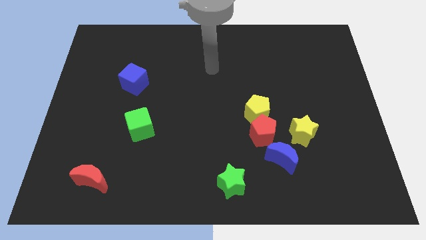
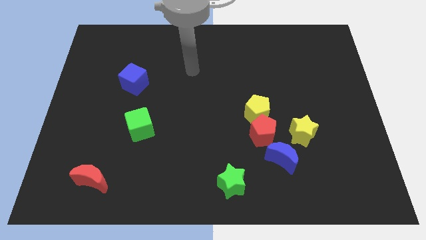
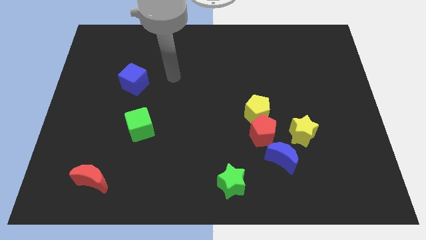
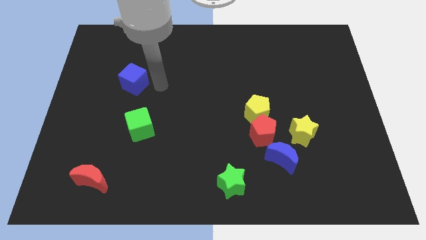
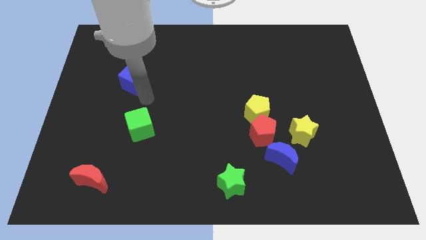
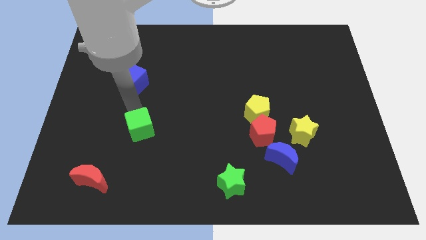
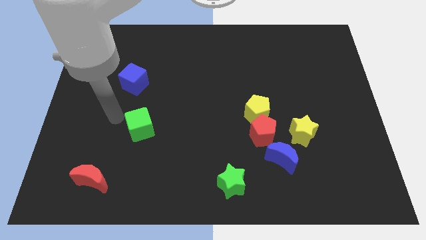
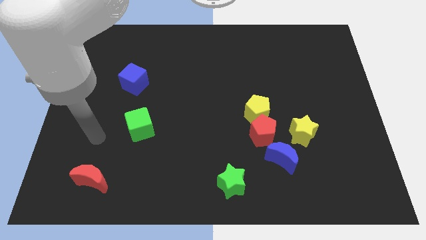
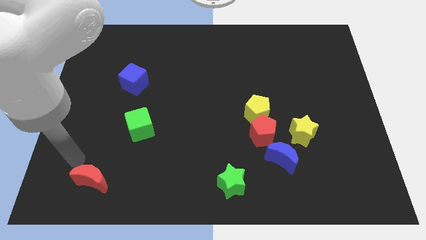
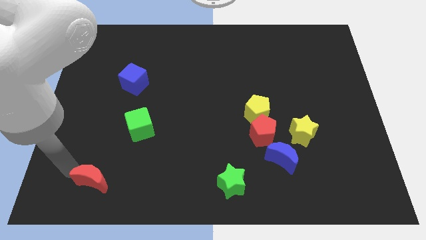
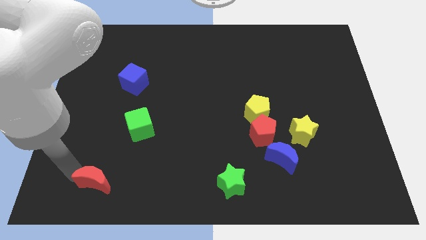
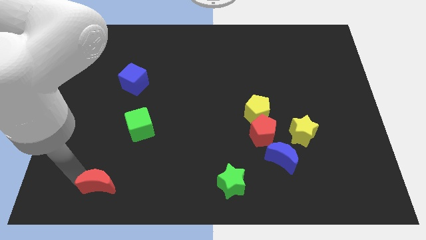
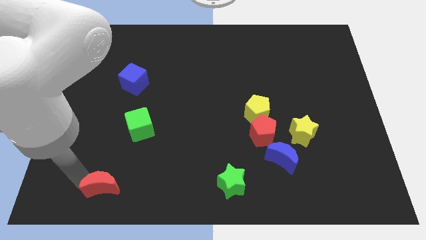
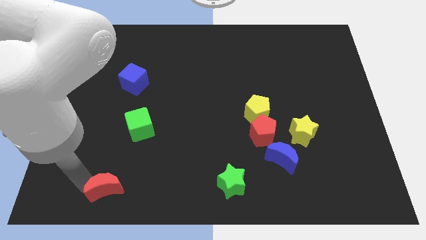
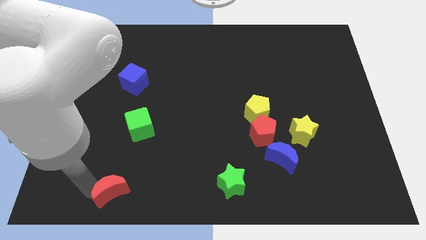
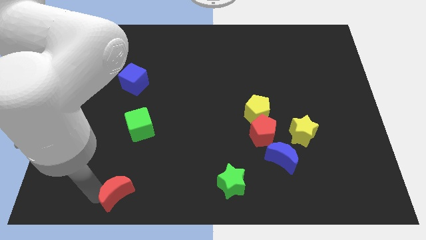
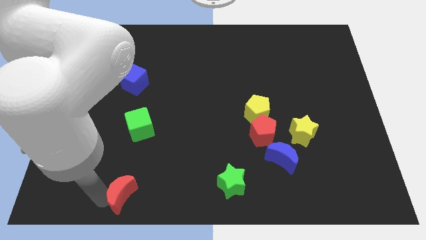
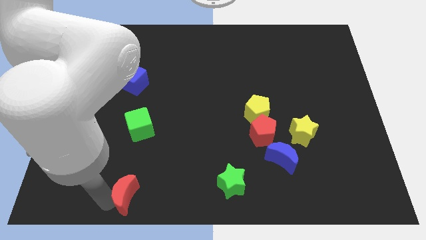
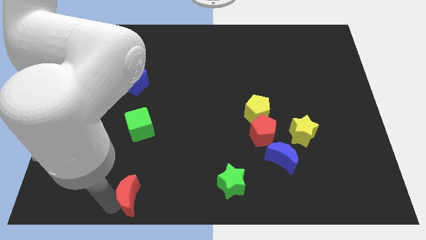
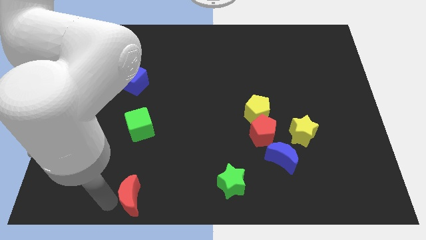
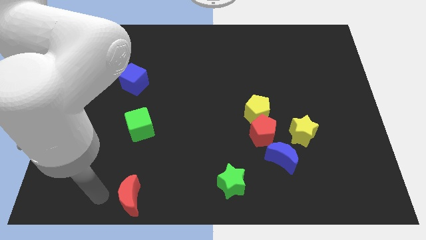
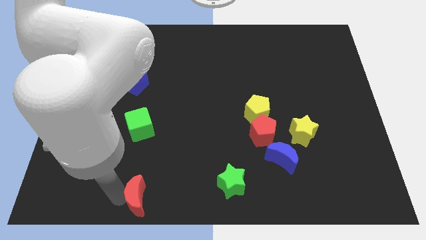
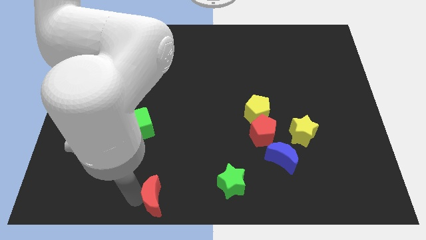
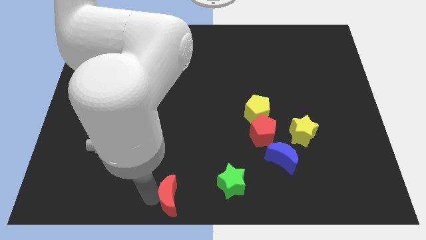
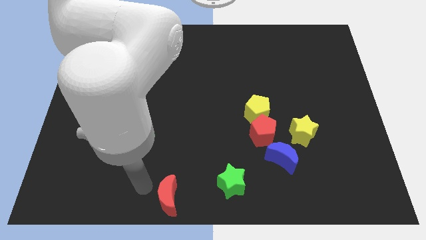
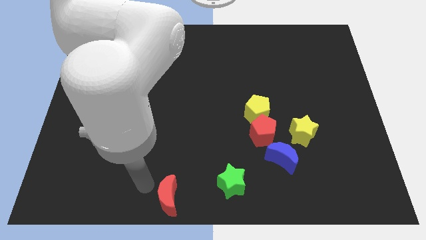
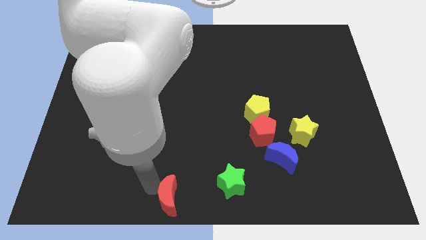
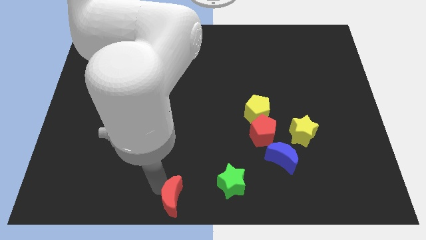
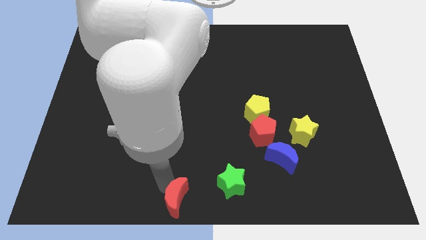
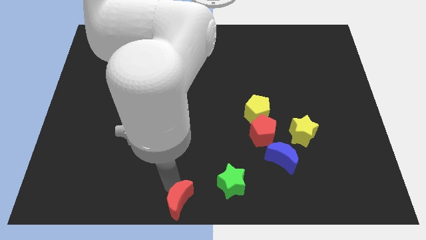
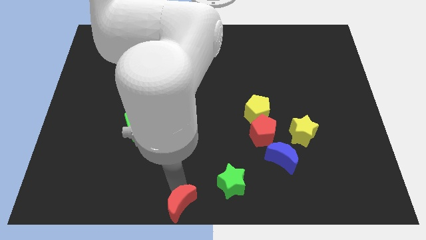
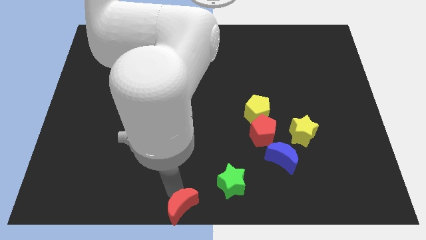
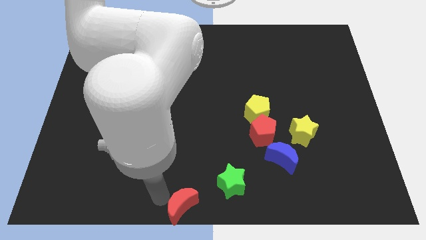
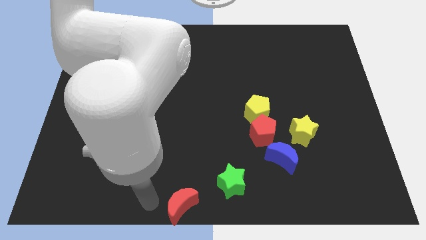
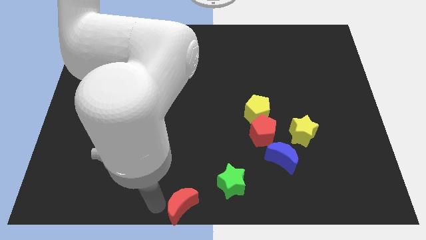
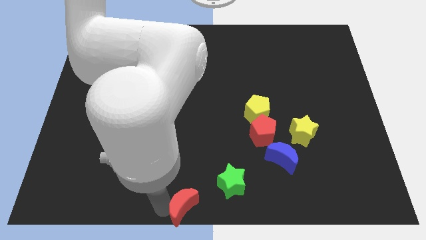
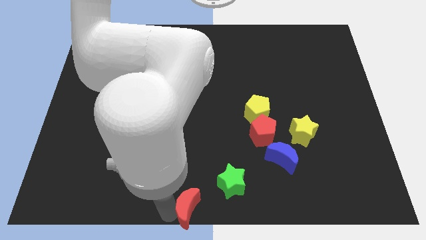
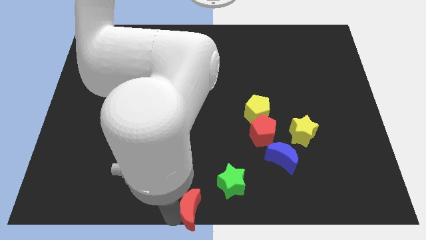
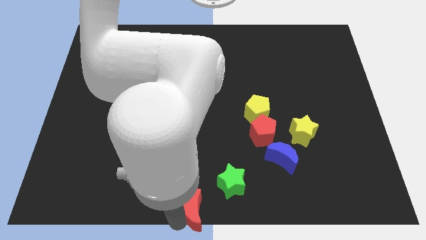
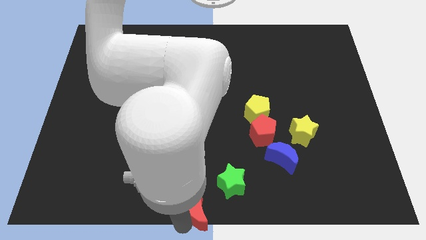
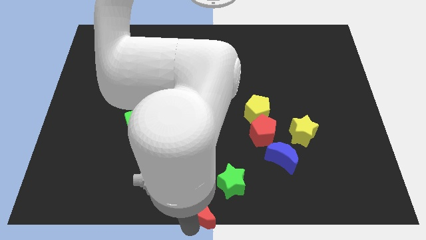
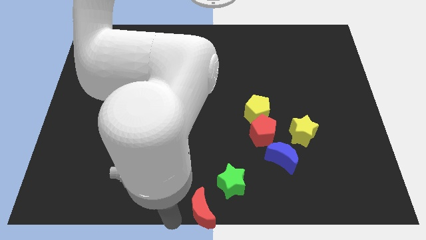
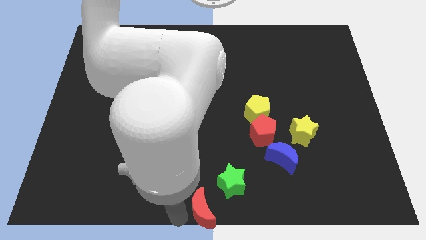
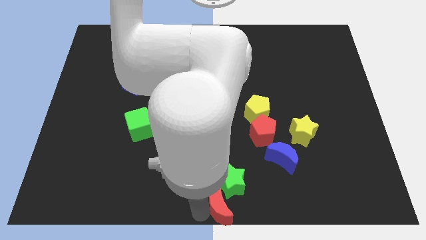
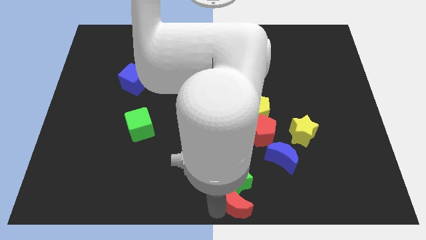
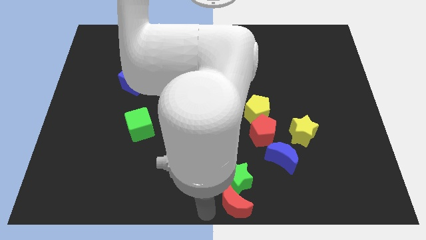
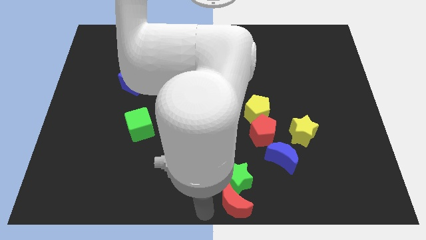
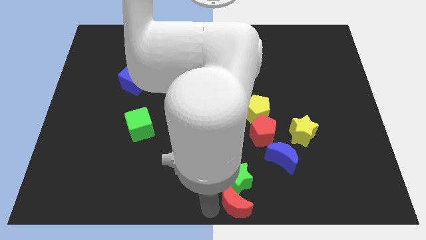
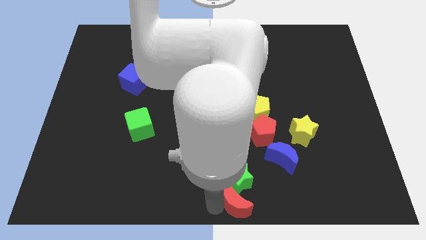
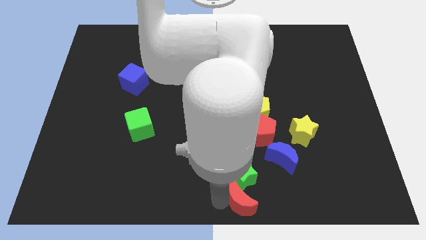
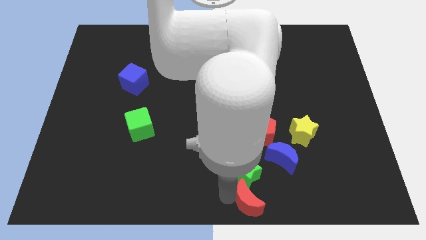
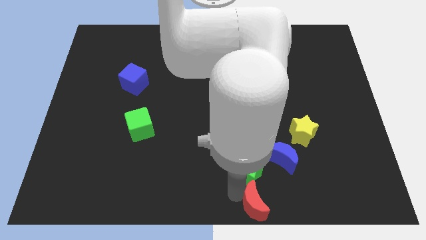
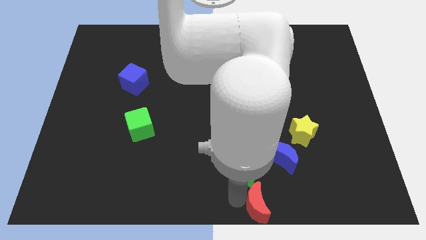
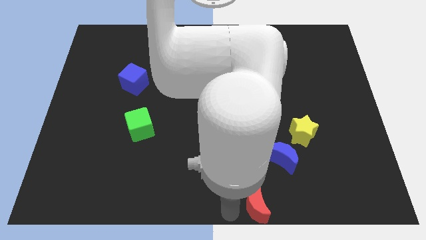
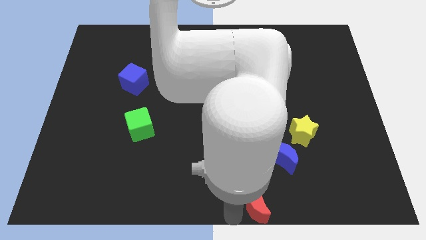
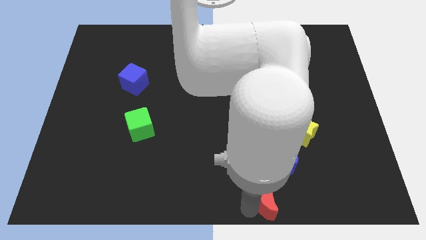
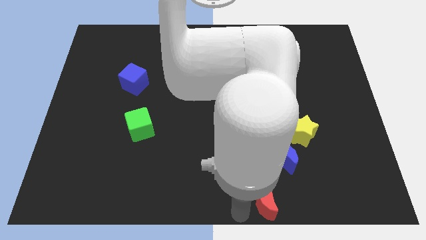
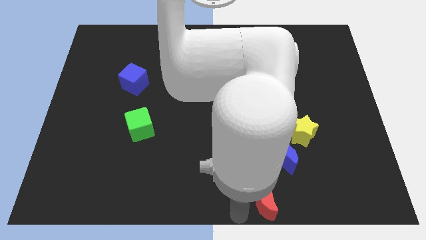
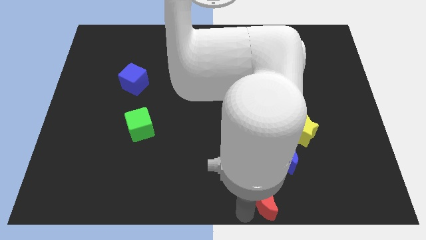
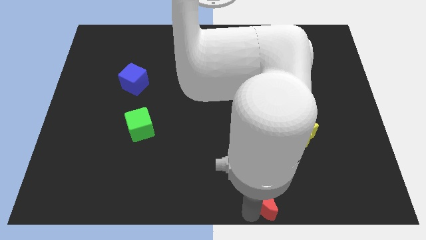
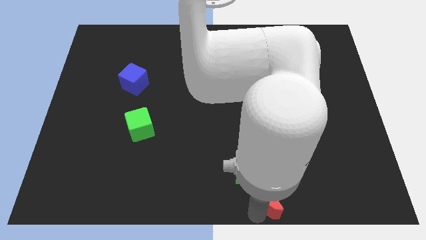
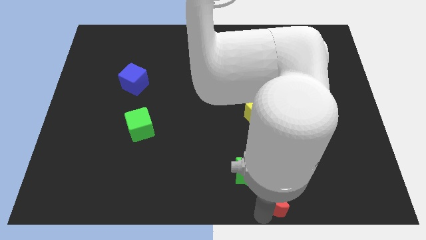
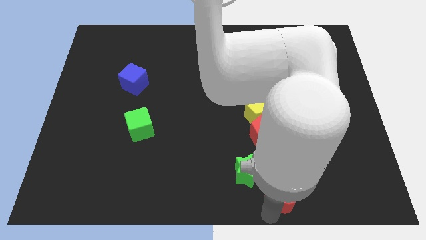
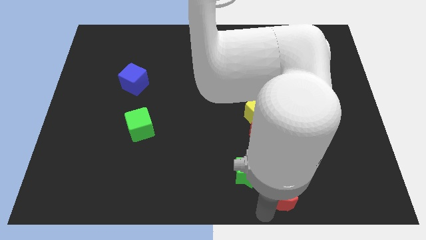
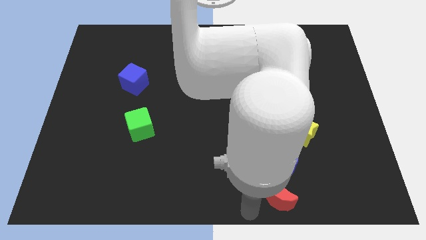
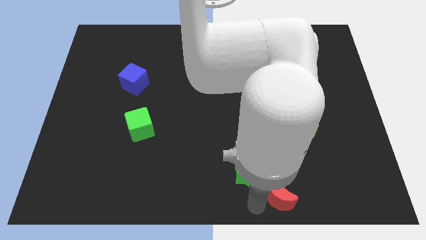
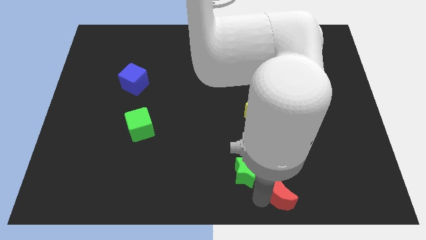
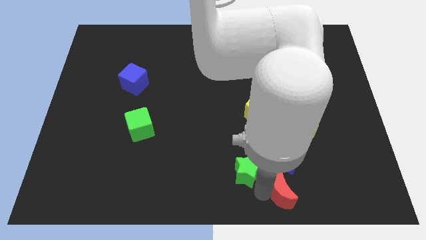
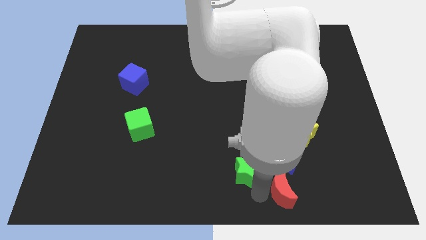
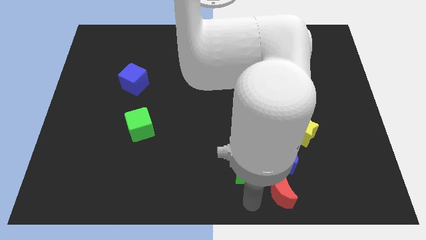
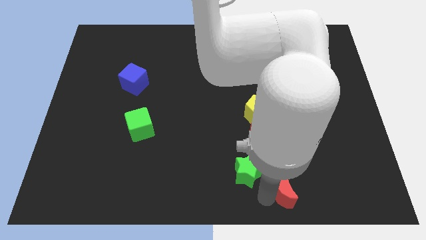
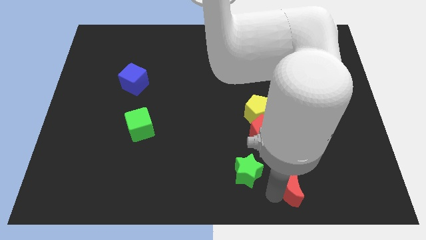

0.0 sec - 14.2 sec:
put the red moon to the bottom right side of the blue moon
